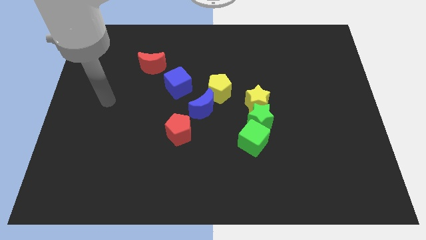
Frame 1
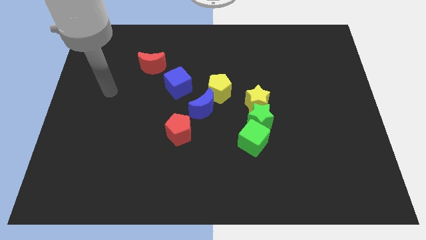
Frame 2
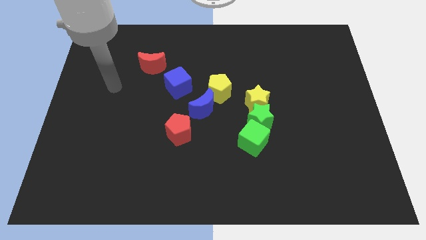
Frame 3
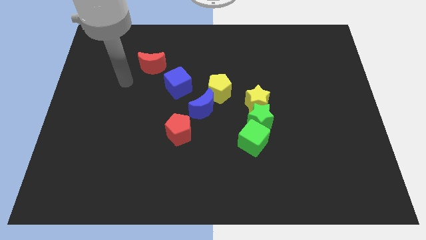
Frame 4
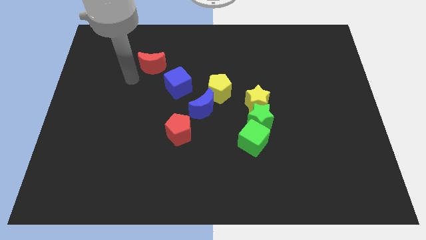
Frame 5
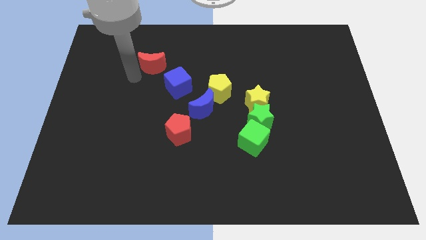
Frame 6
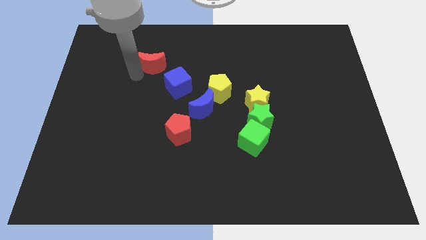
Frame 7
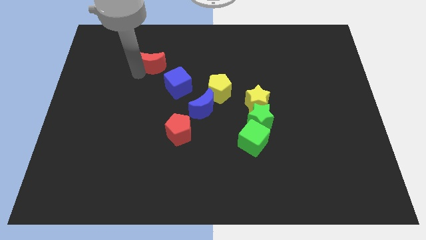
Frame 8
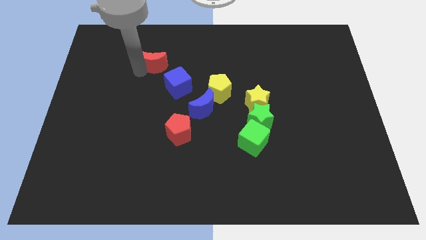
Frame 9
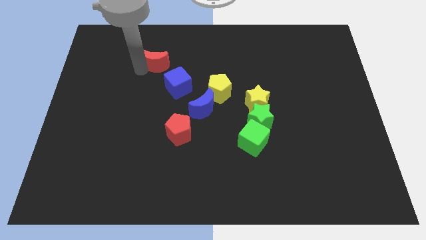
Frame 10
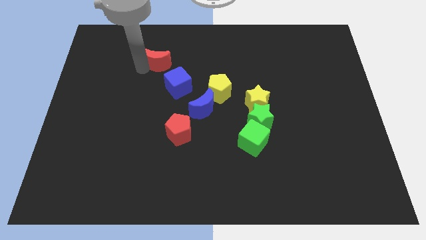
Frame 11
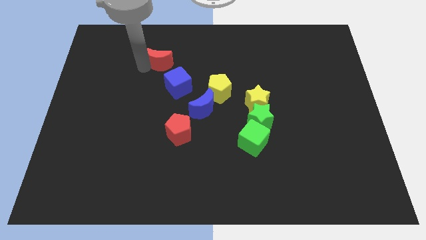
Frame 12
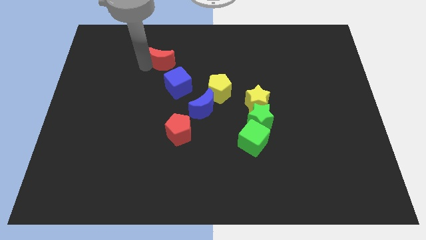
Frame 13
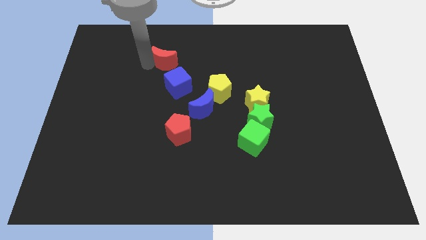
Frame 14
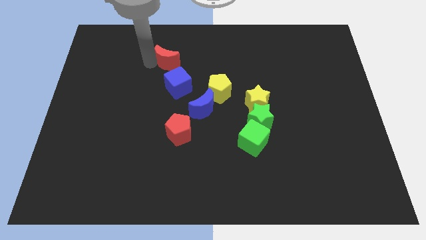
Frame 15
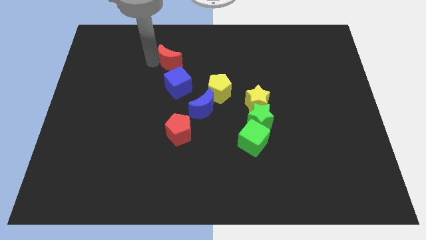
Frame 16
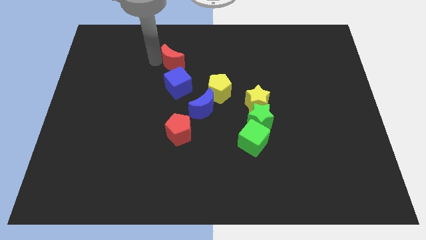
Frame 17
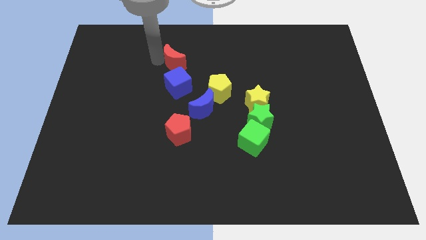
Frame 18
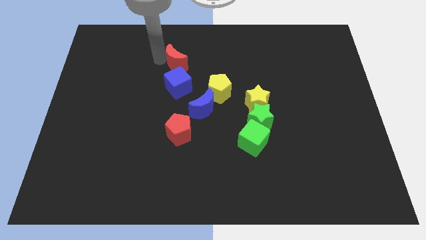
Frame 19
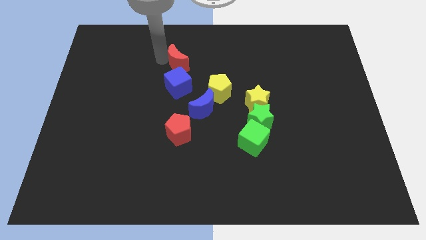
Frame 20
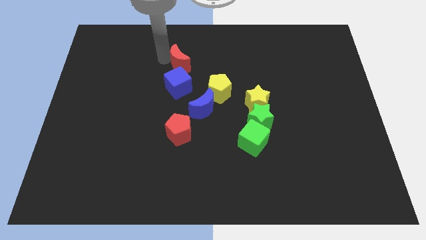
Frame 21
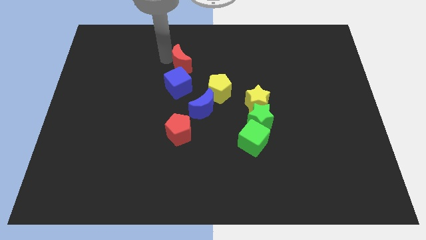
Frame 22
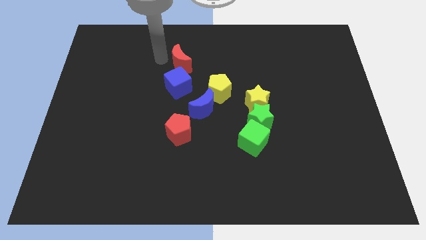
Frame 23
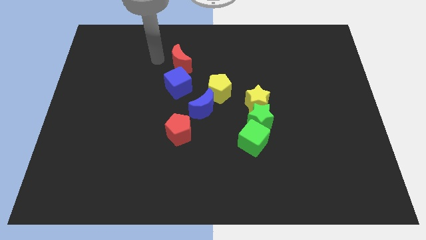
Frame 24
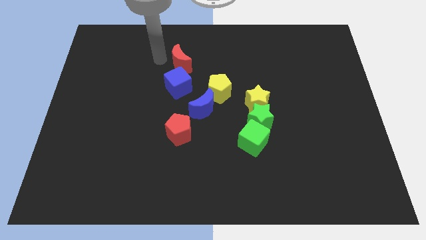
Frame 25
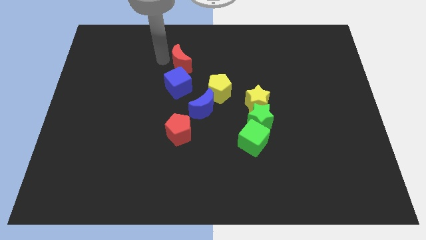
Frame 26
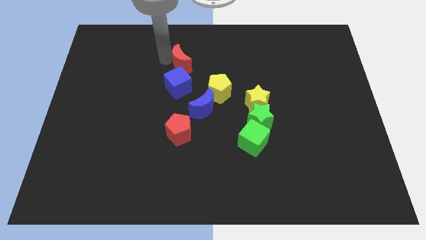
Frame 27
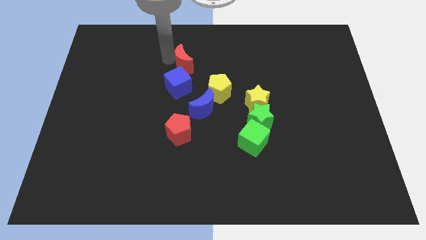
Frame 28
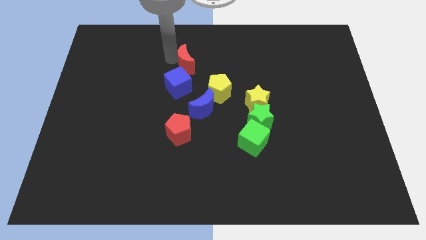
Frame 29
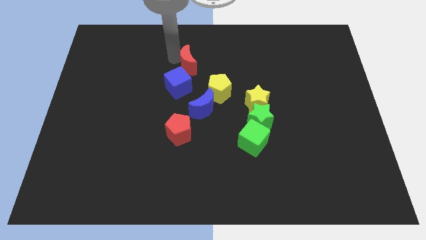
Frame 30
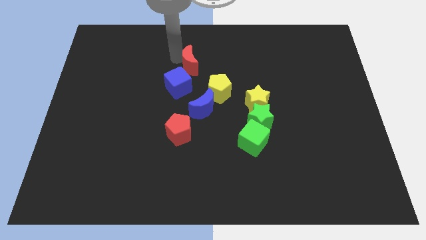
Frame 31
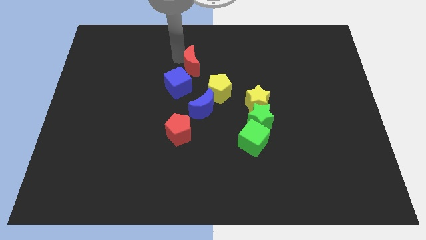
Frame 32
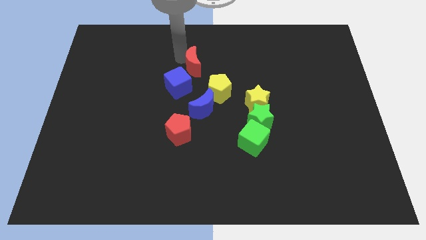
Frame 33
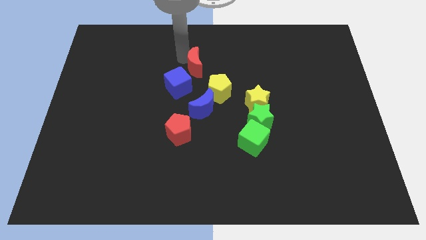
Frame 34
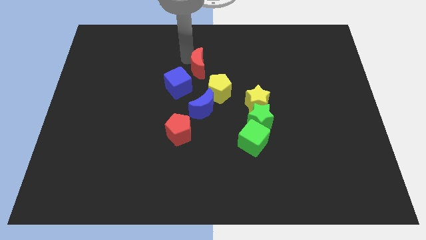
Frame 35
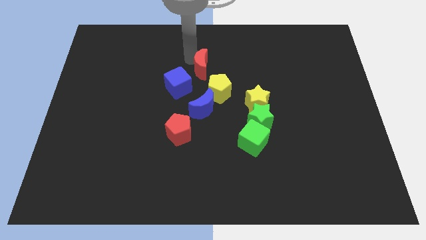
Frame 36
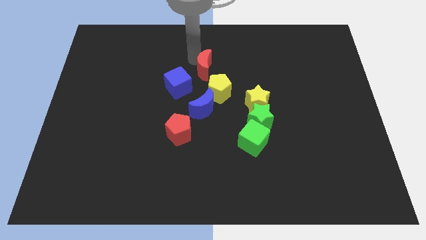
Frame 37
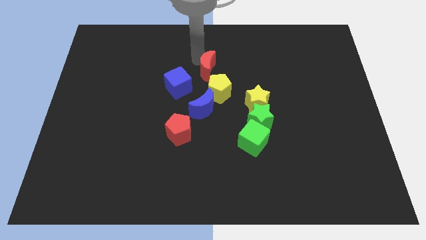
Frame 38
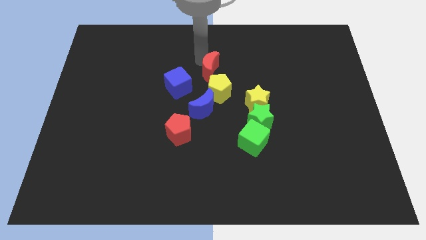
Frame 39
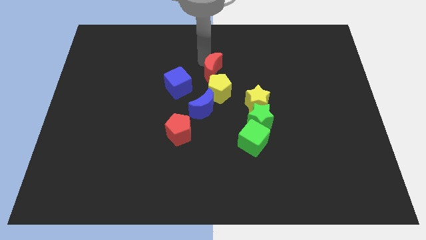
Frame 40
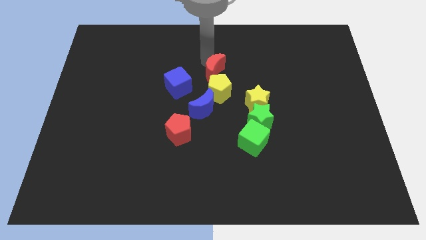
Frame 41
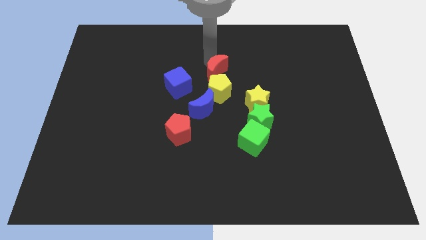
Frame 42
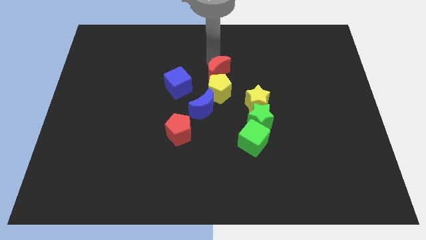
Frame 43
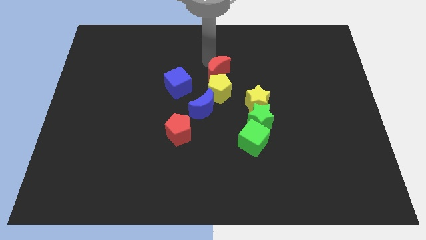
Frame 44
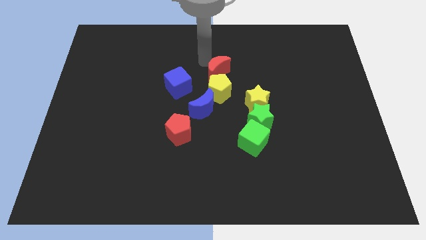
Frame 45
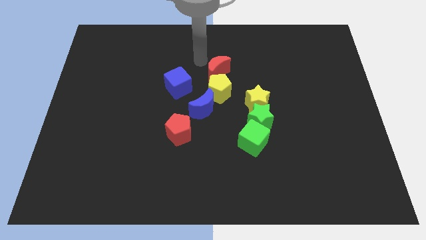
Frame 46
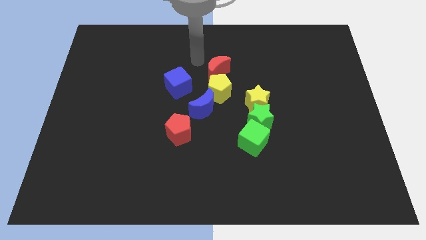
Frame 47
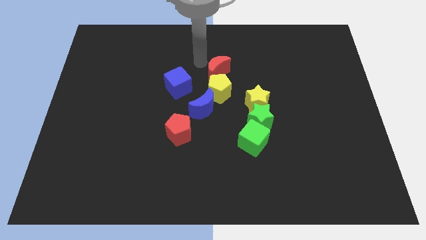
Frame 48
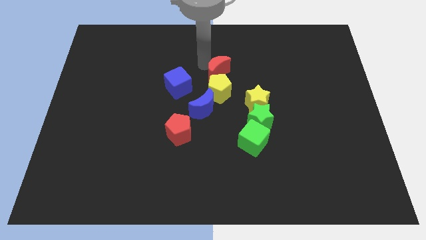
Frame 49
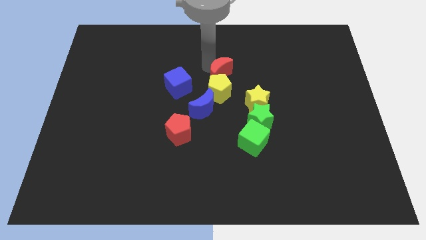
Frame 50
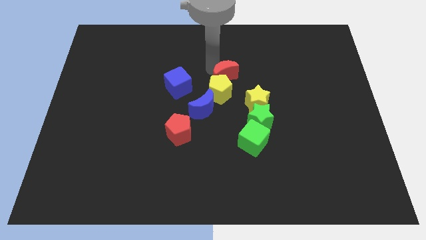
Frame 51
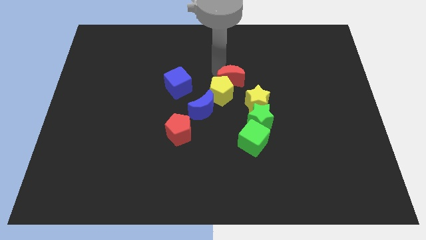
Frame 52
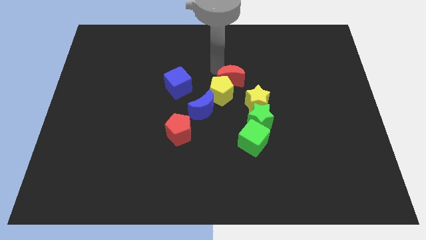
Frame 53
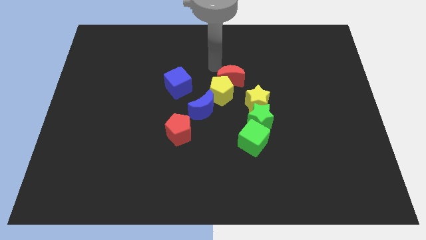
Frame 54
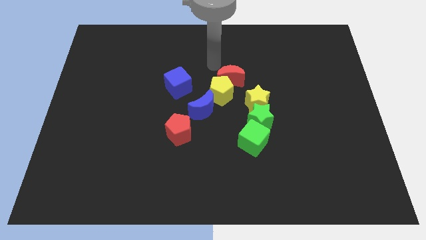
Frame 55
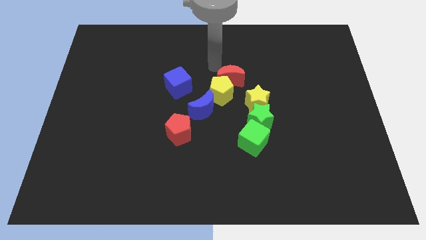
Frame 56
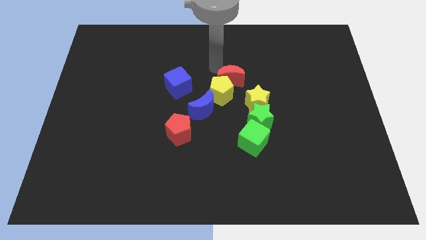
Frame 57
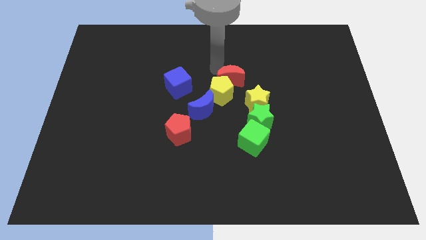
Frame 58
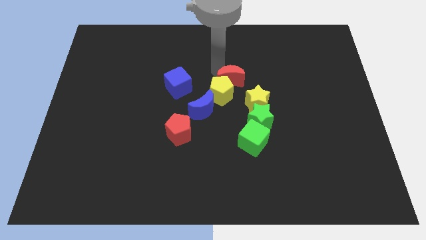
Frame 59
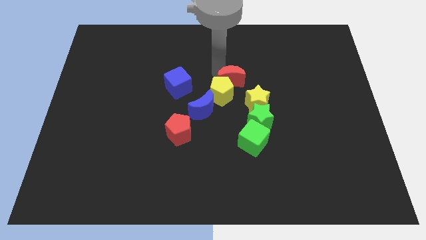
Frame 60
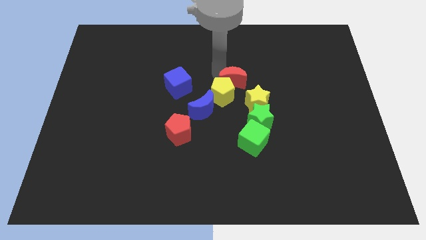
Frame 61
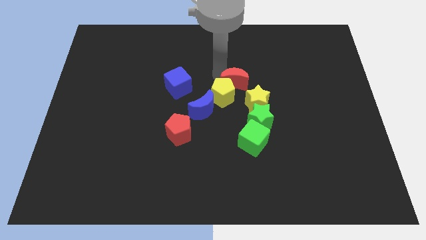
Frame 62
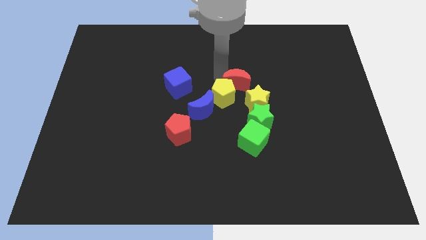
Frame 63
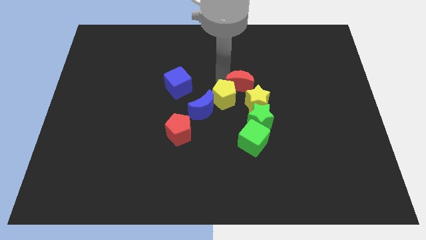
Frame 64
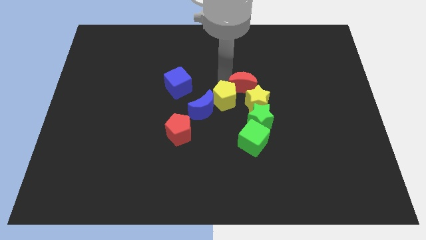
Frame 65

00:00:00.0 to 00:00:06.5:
push the red moon close to the yellow star
